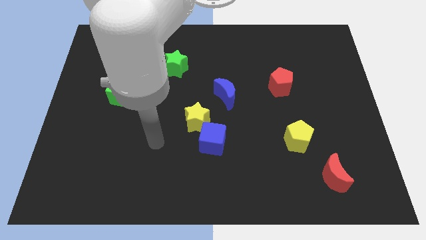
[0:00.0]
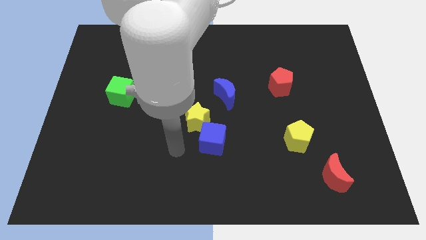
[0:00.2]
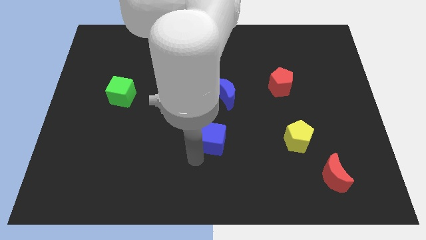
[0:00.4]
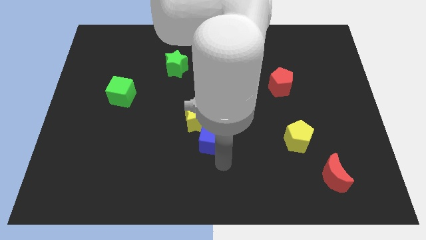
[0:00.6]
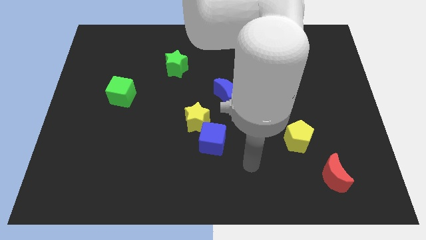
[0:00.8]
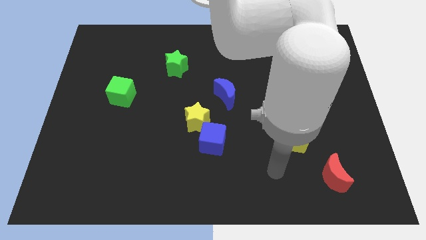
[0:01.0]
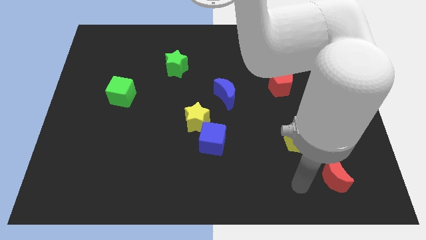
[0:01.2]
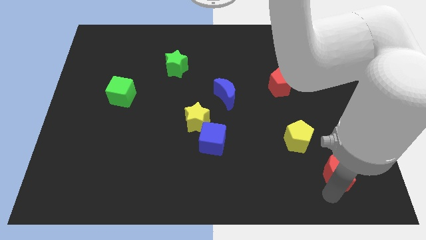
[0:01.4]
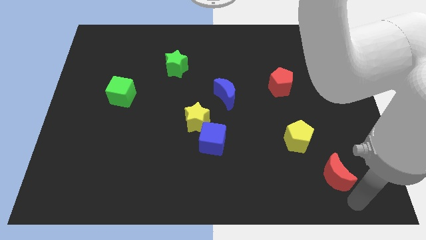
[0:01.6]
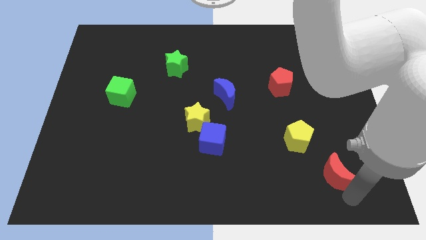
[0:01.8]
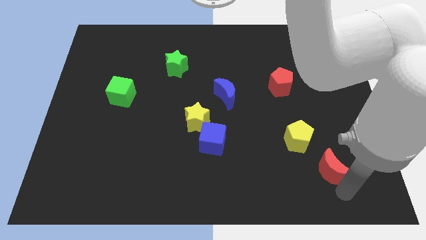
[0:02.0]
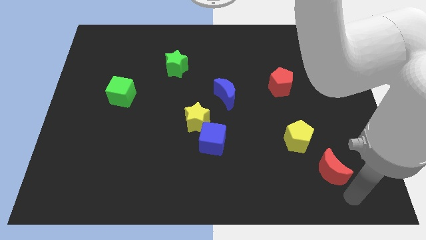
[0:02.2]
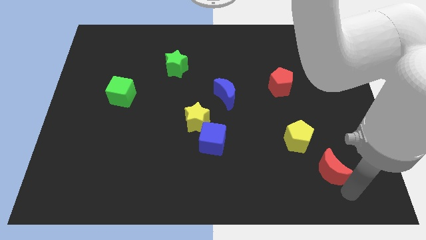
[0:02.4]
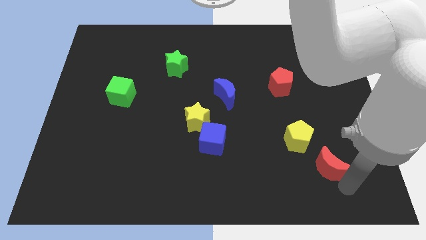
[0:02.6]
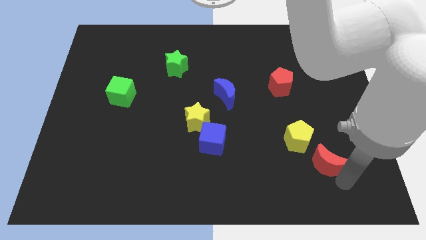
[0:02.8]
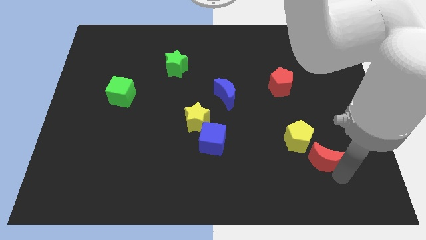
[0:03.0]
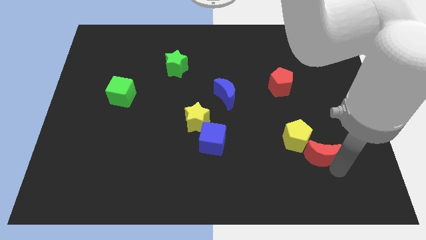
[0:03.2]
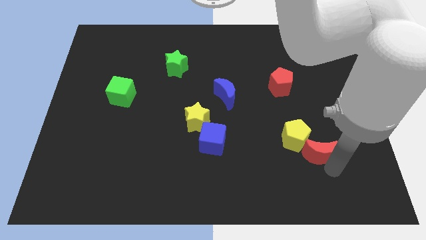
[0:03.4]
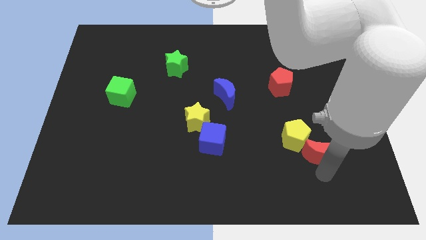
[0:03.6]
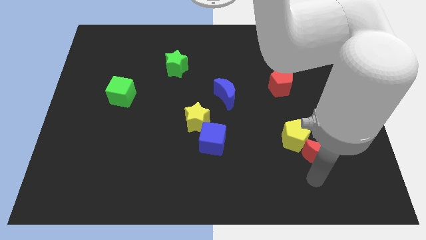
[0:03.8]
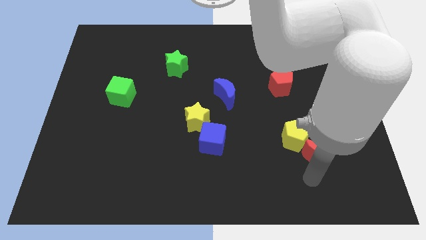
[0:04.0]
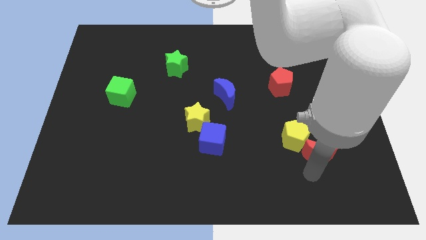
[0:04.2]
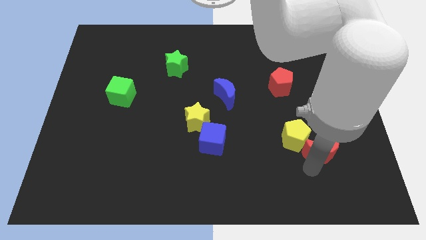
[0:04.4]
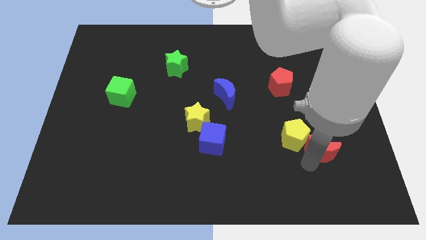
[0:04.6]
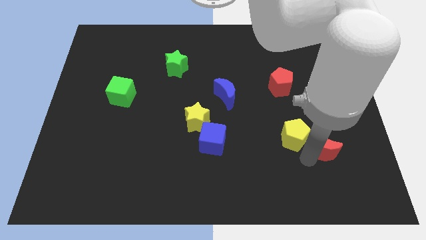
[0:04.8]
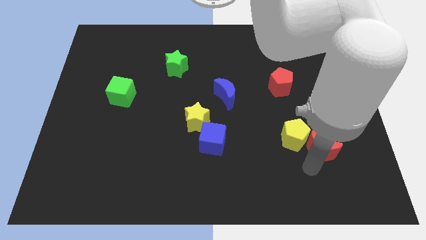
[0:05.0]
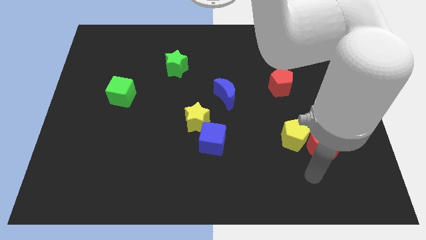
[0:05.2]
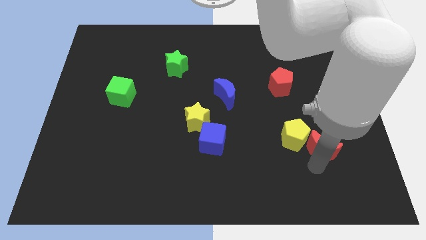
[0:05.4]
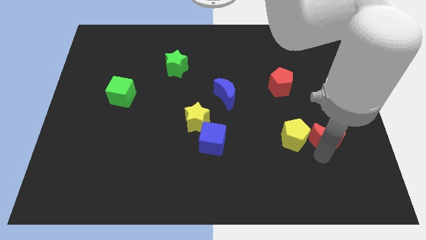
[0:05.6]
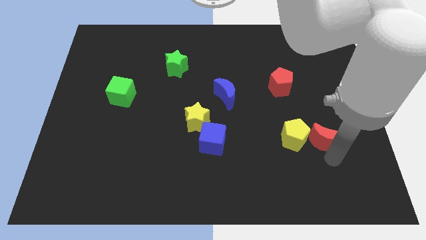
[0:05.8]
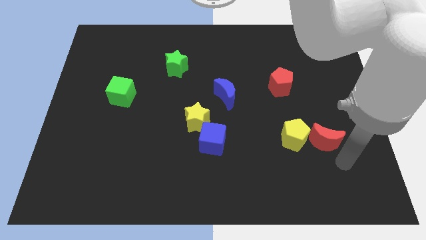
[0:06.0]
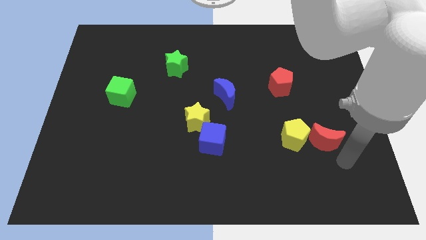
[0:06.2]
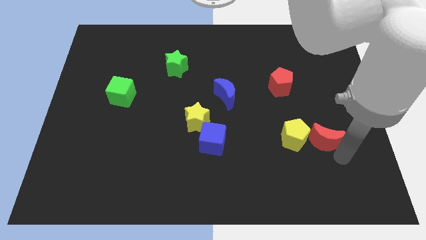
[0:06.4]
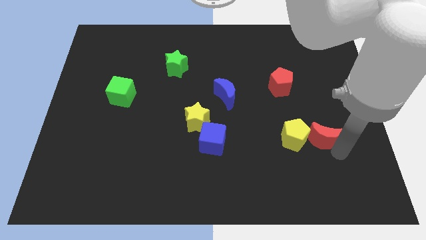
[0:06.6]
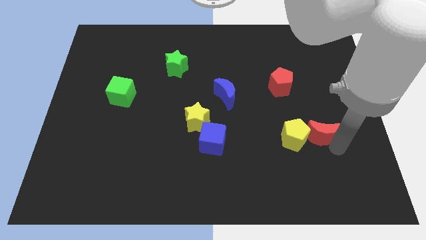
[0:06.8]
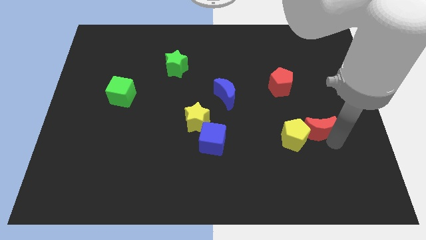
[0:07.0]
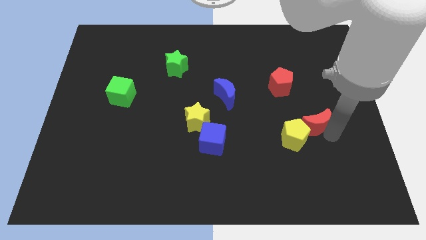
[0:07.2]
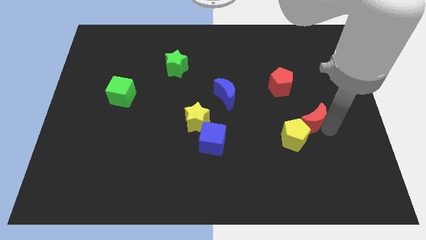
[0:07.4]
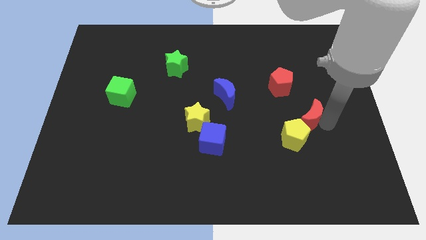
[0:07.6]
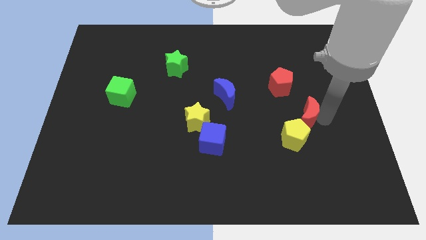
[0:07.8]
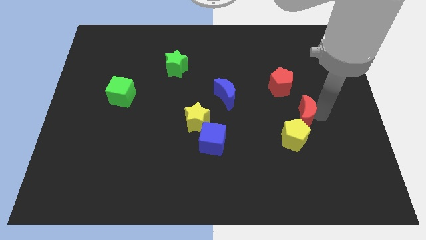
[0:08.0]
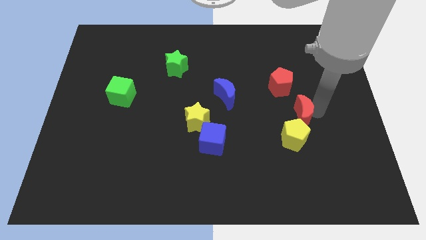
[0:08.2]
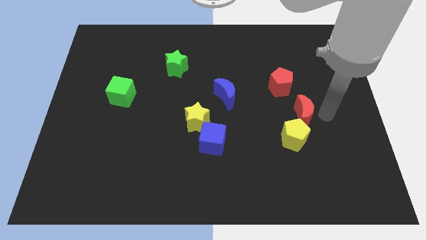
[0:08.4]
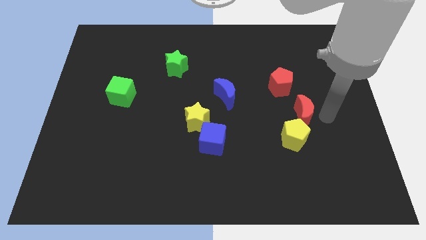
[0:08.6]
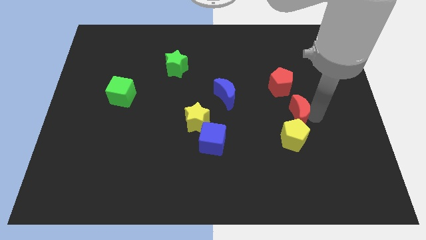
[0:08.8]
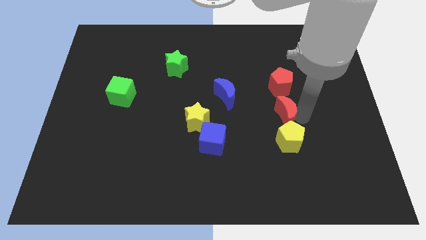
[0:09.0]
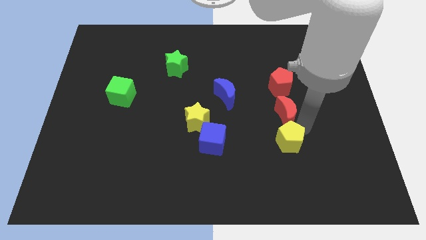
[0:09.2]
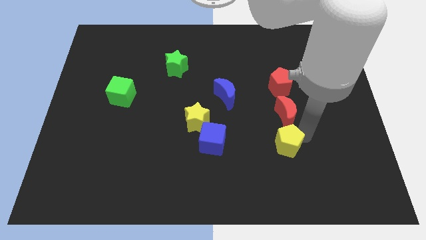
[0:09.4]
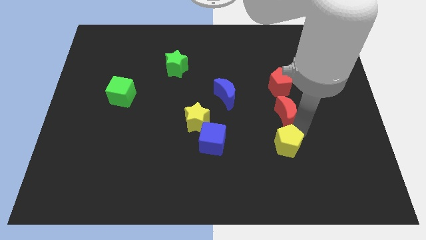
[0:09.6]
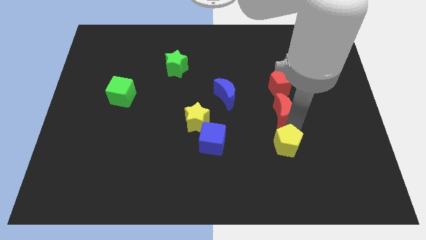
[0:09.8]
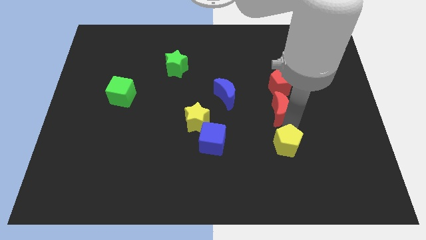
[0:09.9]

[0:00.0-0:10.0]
put the red moon to the right of the blue moon

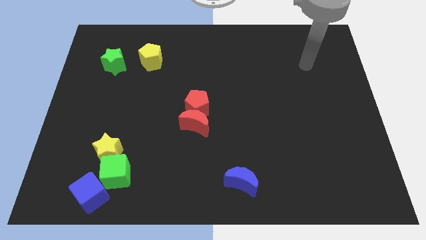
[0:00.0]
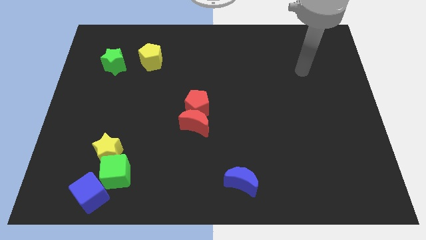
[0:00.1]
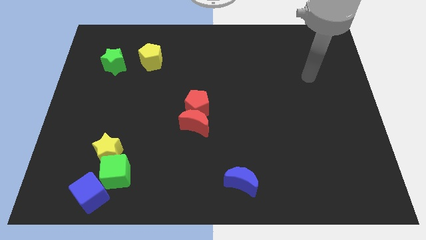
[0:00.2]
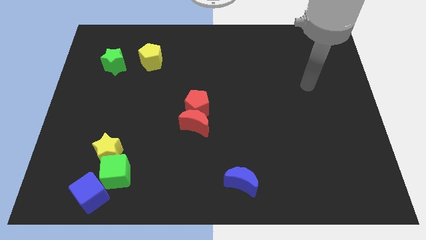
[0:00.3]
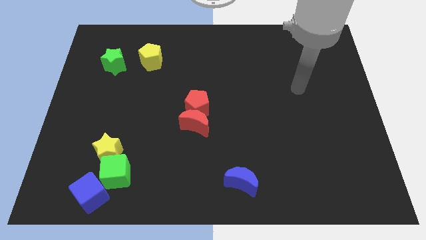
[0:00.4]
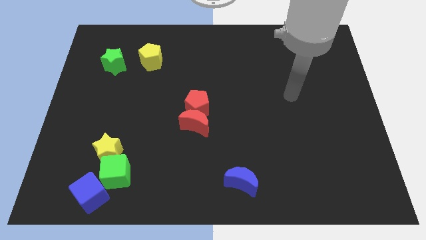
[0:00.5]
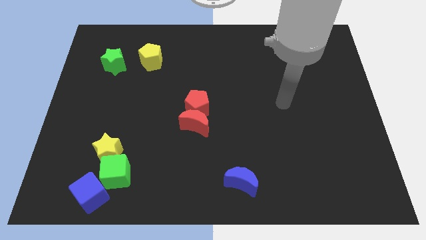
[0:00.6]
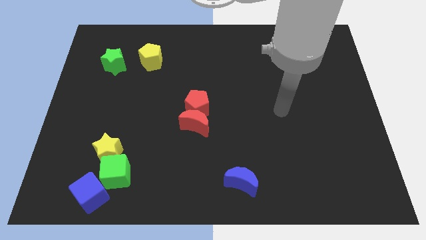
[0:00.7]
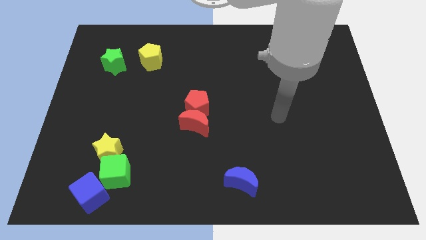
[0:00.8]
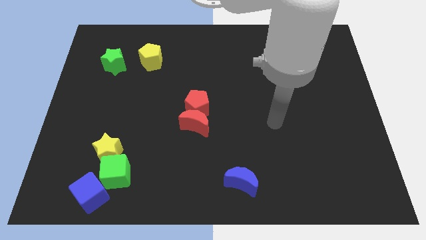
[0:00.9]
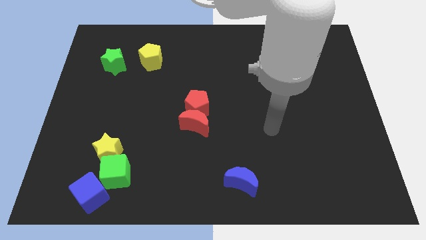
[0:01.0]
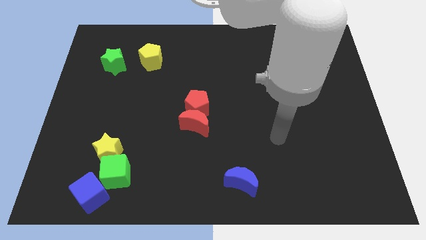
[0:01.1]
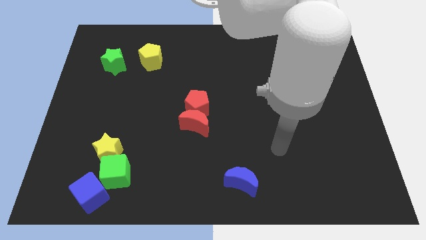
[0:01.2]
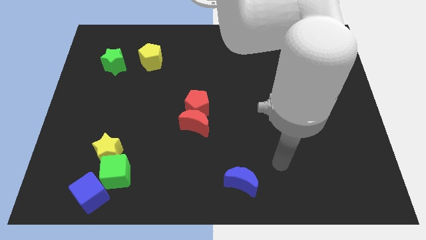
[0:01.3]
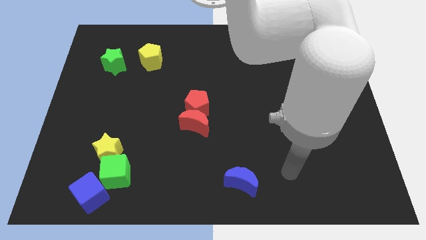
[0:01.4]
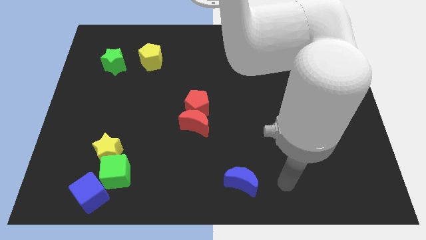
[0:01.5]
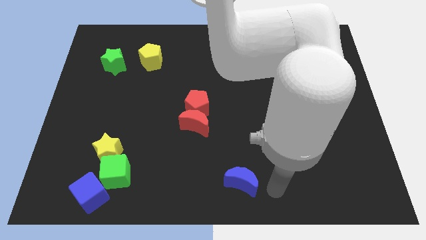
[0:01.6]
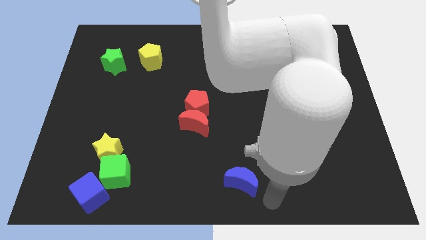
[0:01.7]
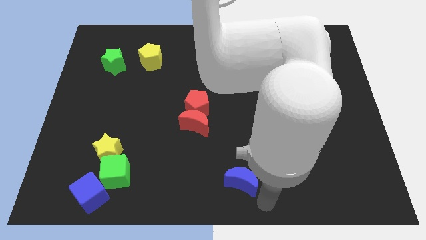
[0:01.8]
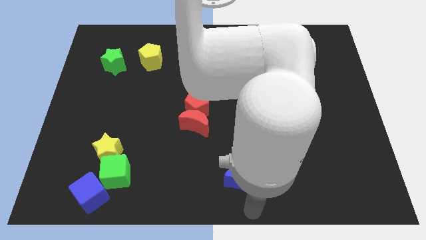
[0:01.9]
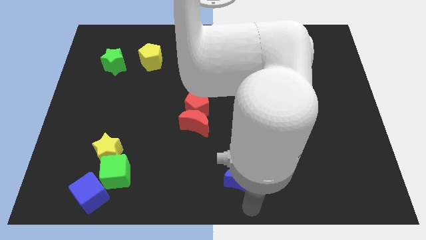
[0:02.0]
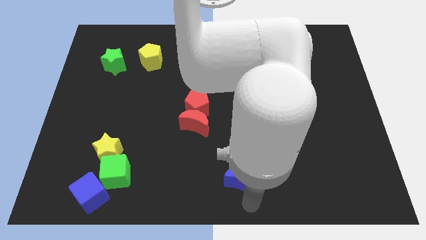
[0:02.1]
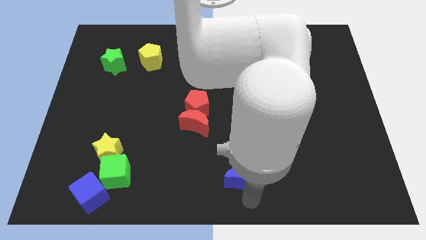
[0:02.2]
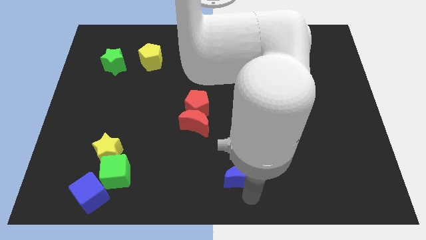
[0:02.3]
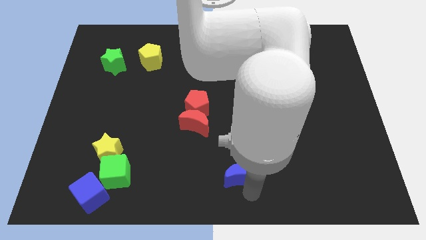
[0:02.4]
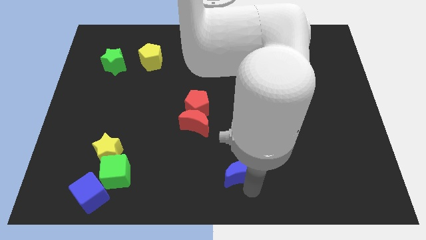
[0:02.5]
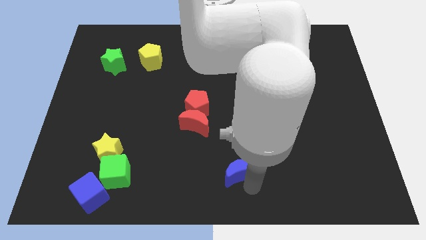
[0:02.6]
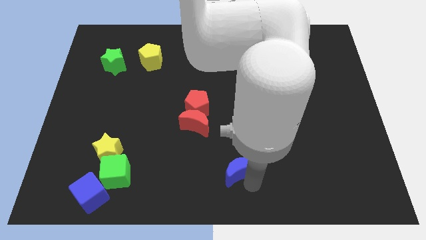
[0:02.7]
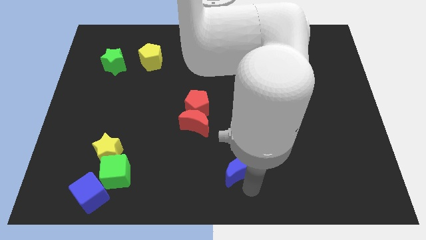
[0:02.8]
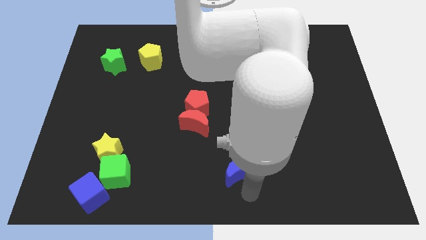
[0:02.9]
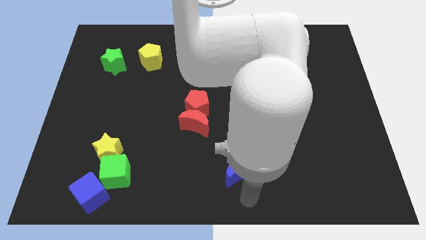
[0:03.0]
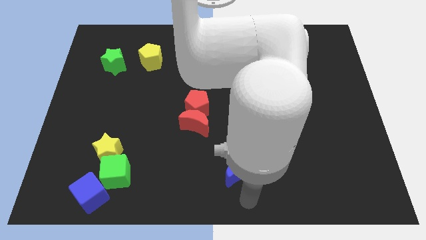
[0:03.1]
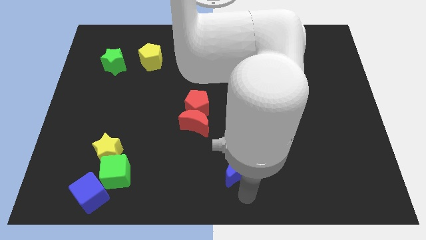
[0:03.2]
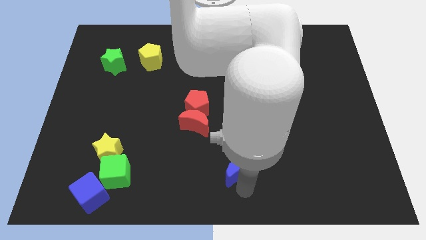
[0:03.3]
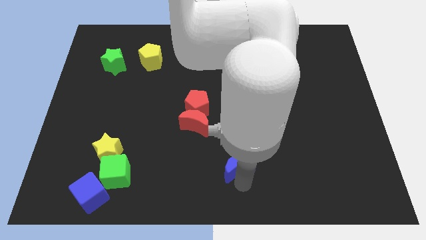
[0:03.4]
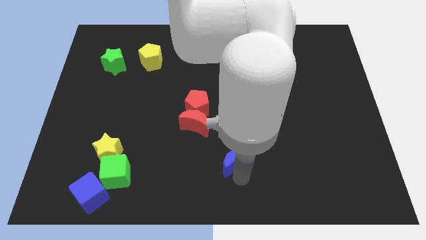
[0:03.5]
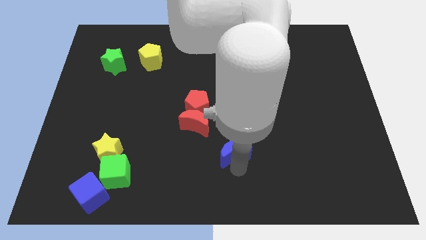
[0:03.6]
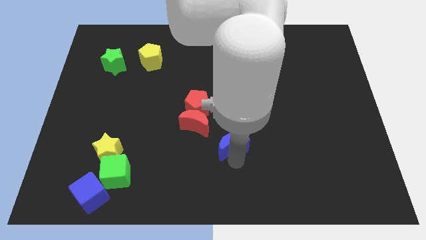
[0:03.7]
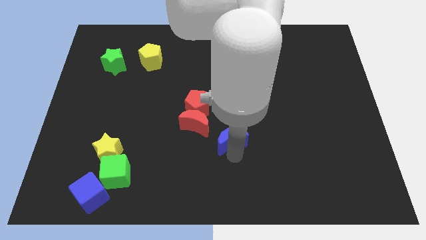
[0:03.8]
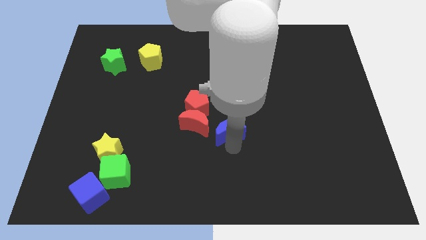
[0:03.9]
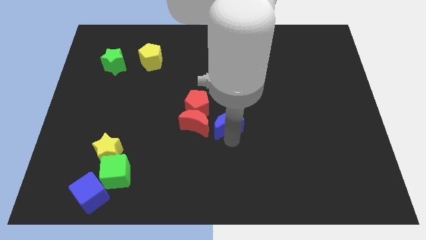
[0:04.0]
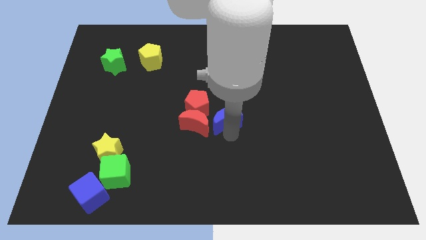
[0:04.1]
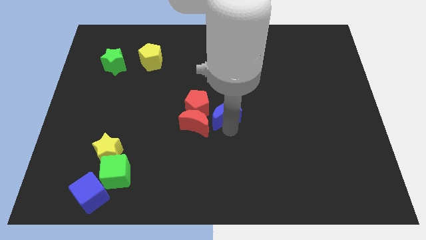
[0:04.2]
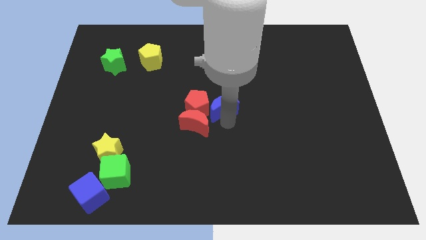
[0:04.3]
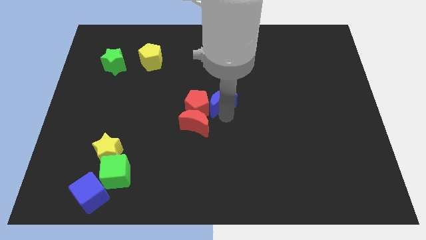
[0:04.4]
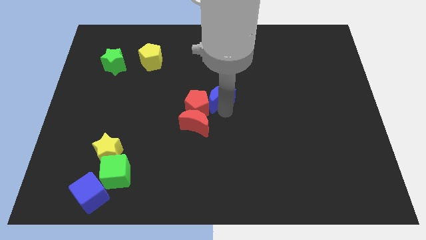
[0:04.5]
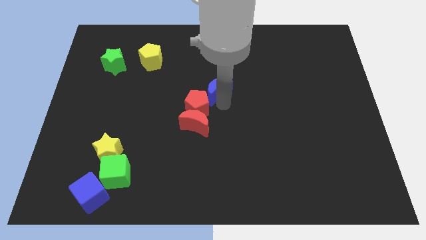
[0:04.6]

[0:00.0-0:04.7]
push the blue moon to the top of the red pentagon
